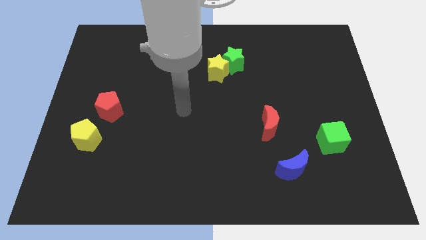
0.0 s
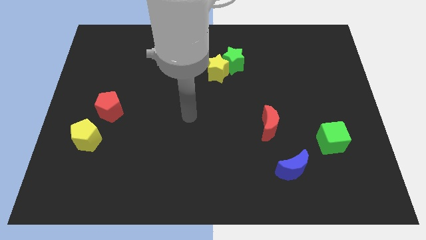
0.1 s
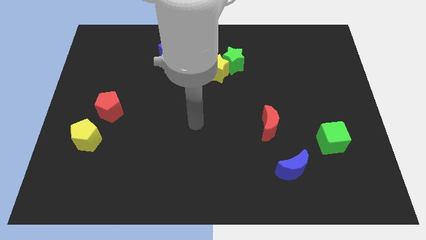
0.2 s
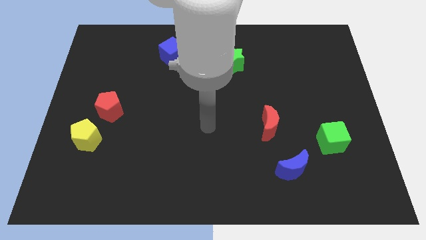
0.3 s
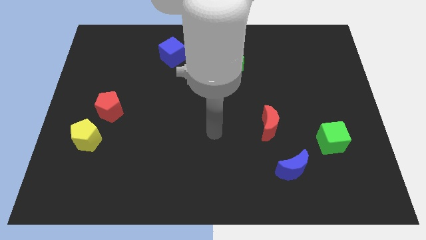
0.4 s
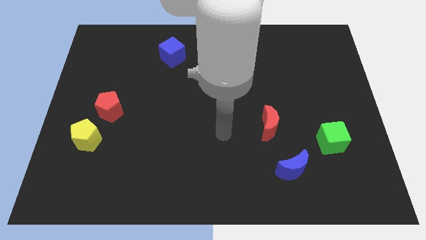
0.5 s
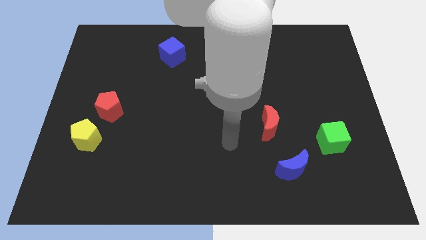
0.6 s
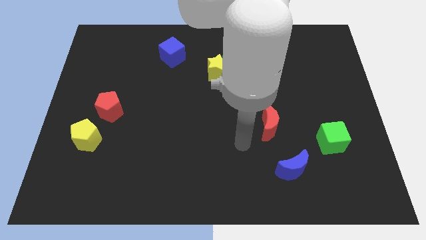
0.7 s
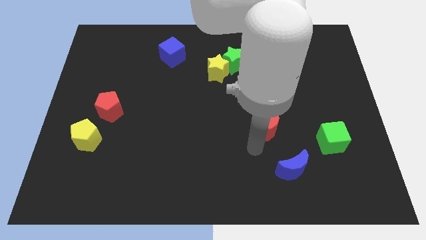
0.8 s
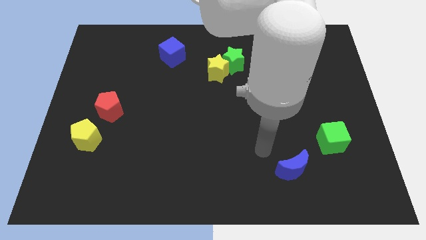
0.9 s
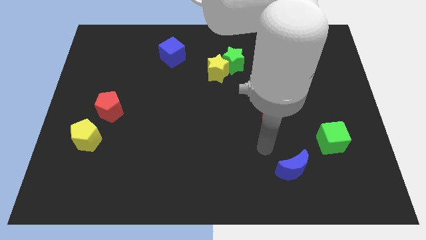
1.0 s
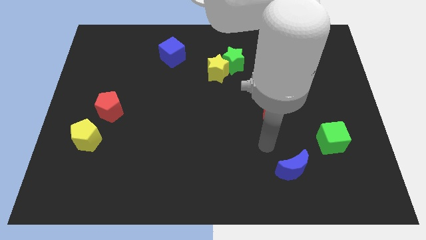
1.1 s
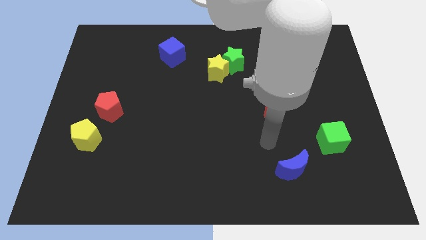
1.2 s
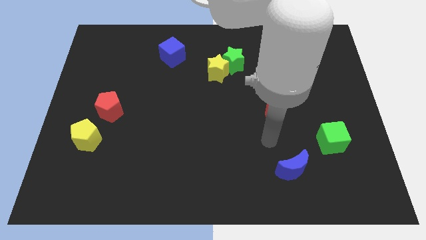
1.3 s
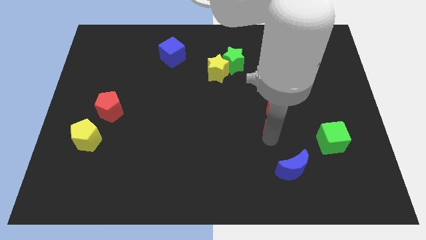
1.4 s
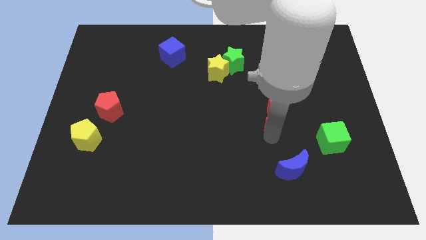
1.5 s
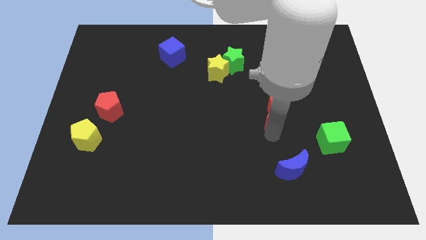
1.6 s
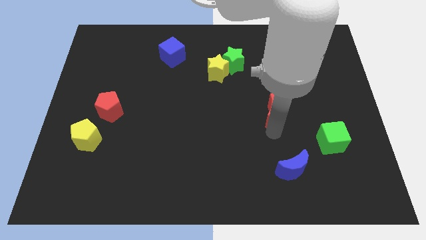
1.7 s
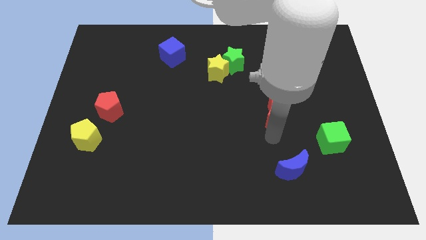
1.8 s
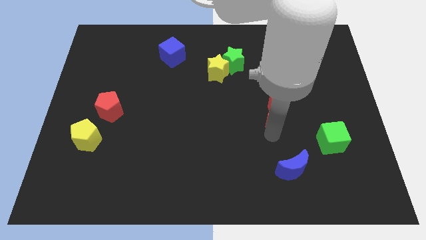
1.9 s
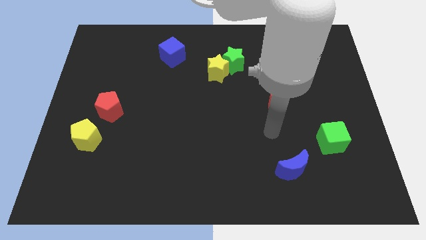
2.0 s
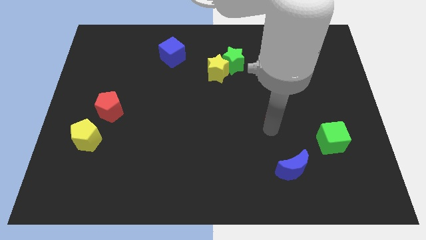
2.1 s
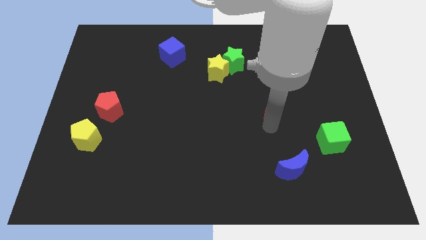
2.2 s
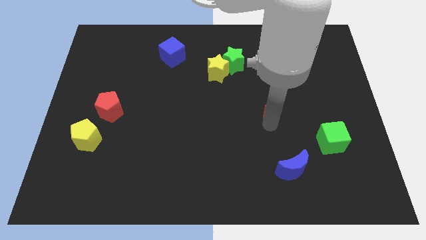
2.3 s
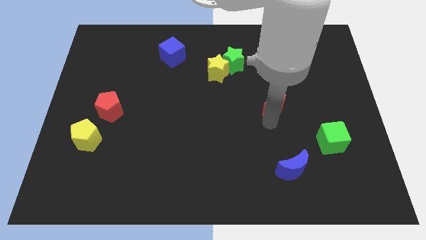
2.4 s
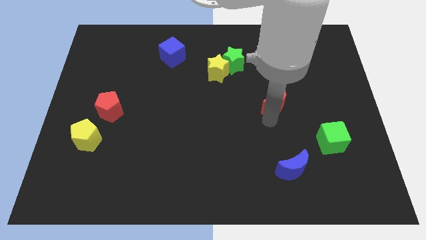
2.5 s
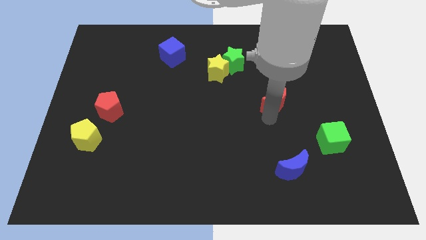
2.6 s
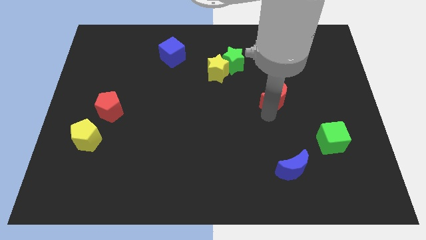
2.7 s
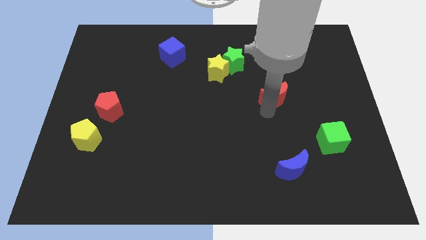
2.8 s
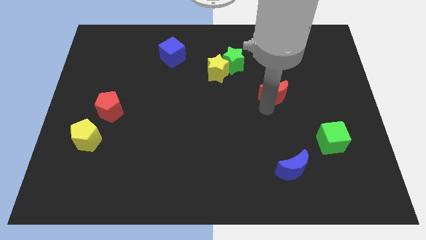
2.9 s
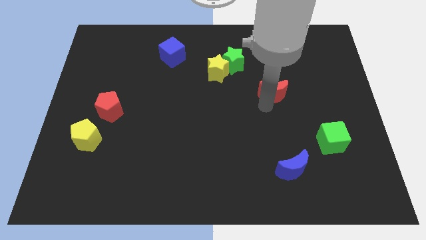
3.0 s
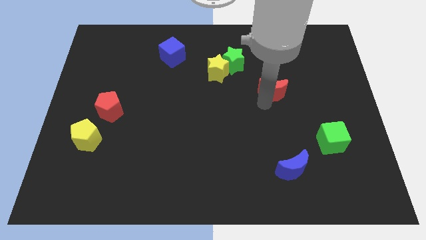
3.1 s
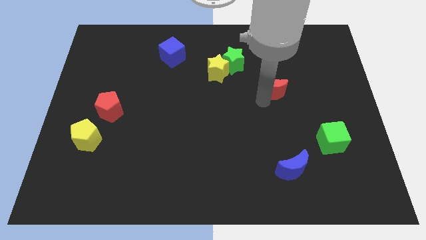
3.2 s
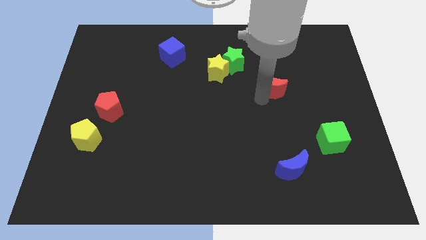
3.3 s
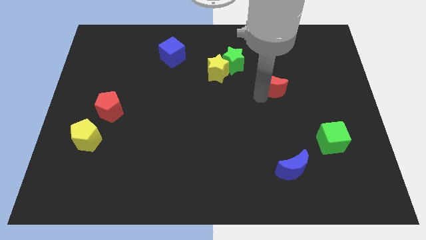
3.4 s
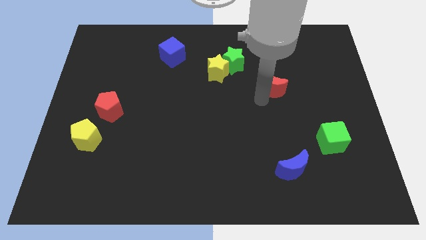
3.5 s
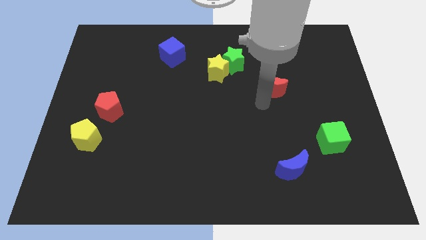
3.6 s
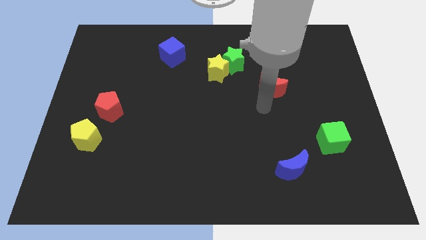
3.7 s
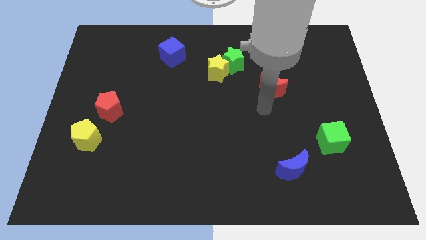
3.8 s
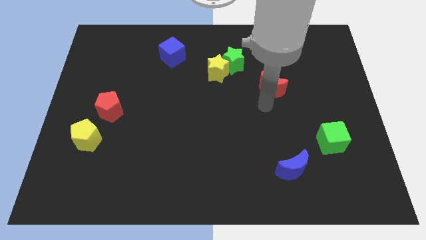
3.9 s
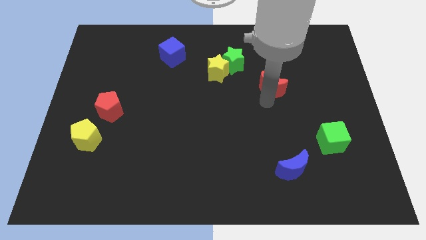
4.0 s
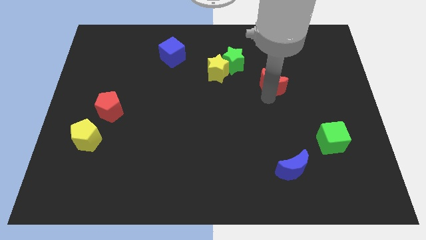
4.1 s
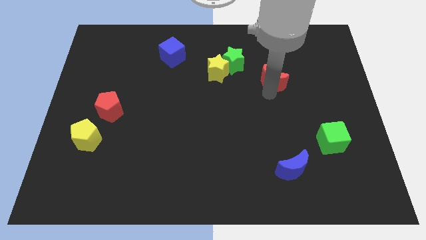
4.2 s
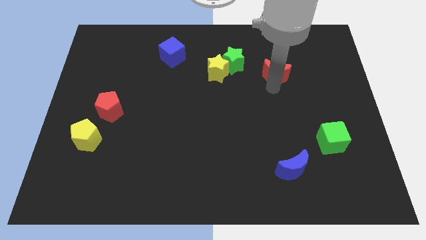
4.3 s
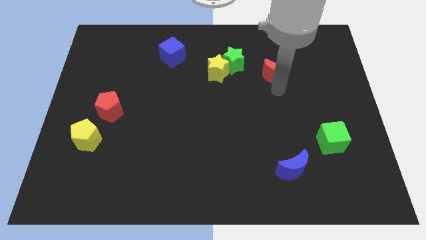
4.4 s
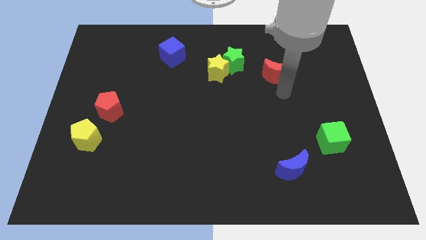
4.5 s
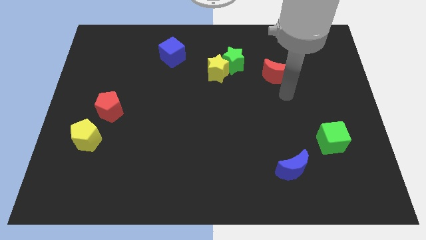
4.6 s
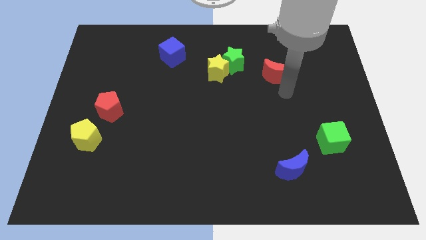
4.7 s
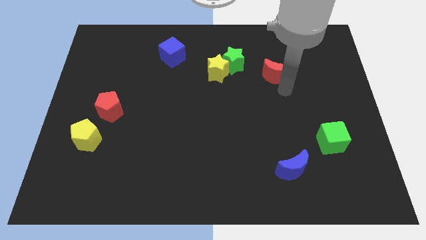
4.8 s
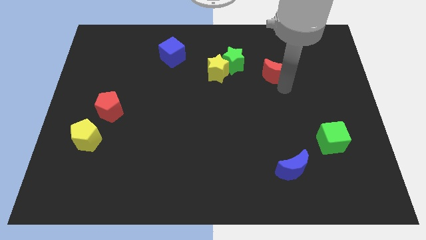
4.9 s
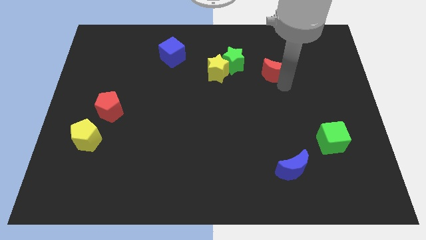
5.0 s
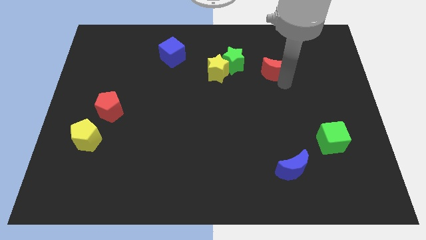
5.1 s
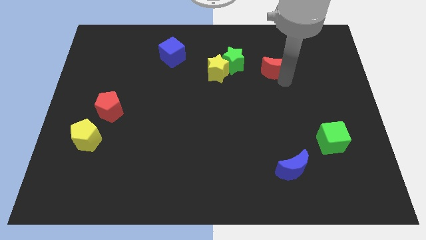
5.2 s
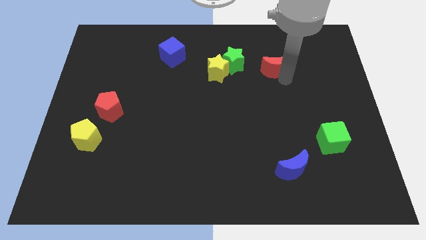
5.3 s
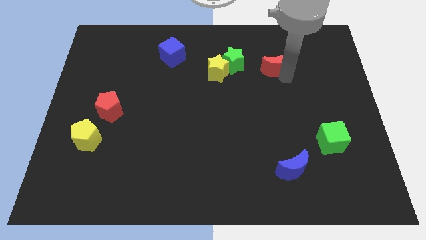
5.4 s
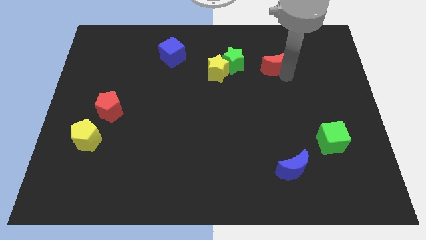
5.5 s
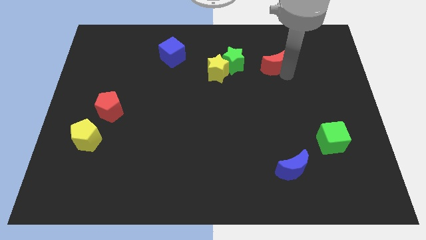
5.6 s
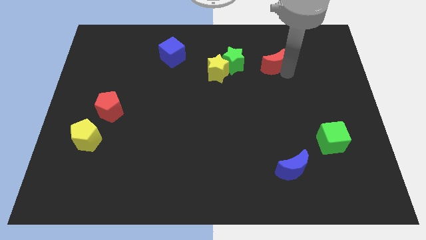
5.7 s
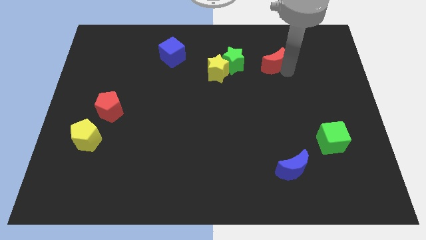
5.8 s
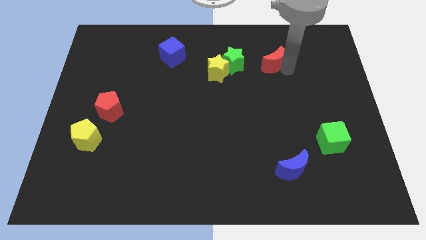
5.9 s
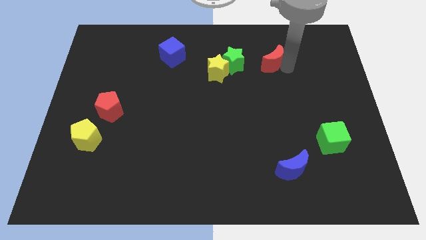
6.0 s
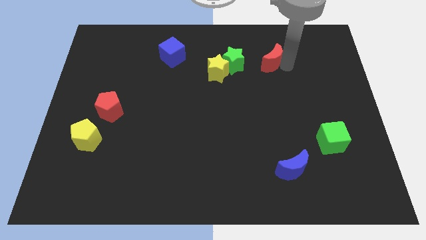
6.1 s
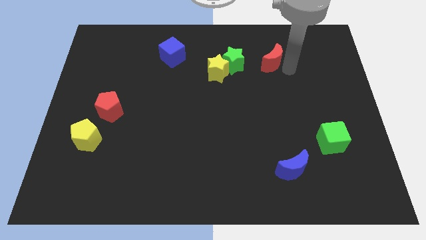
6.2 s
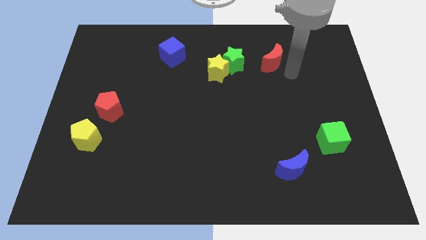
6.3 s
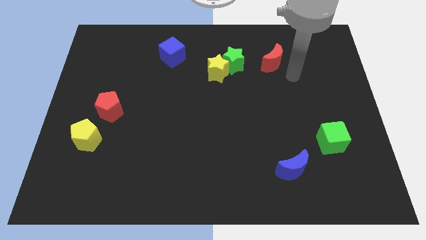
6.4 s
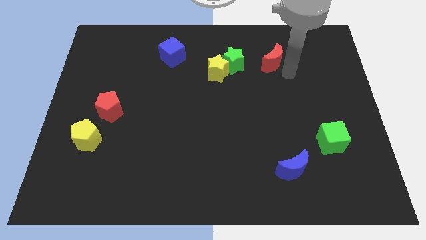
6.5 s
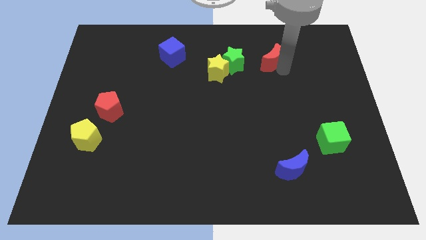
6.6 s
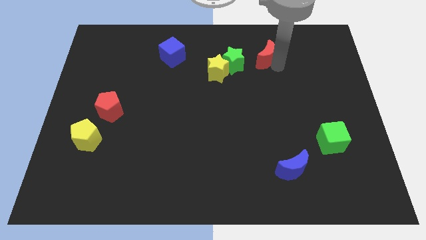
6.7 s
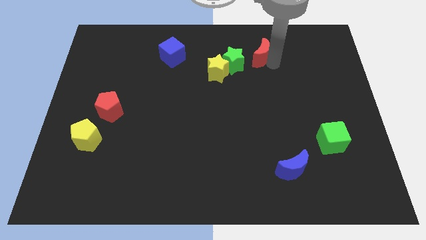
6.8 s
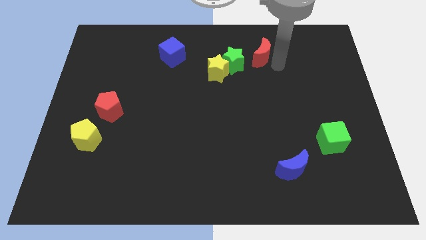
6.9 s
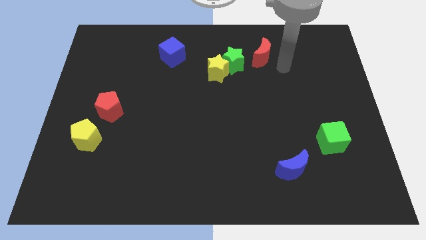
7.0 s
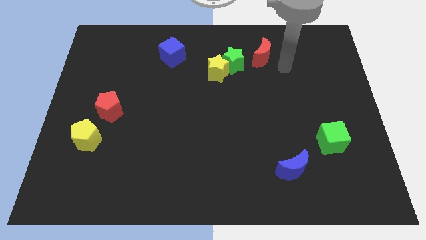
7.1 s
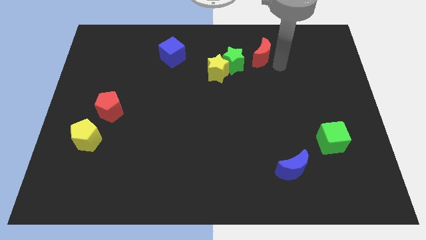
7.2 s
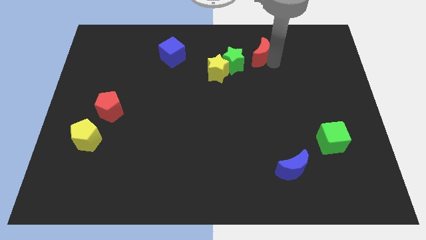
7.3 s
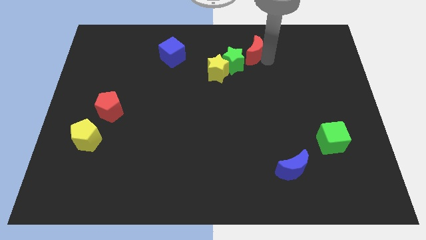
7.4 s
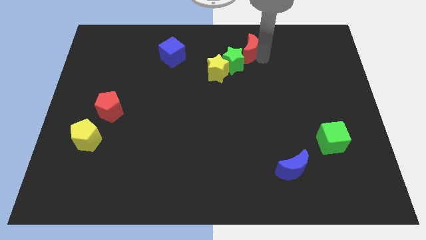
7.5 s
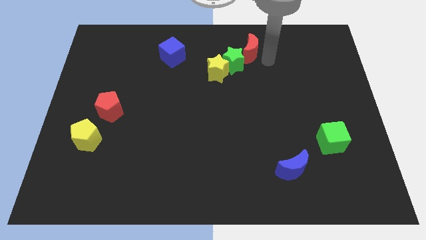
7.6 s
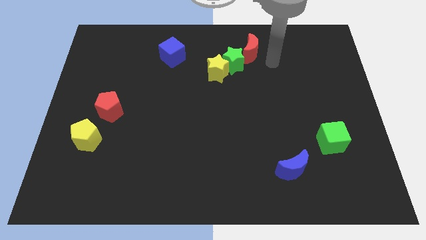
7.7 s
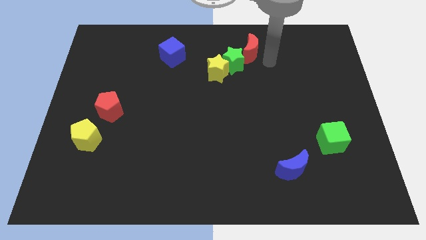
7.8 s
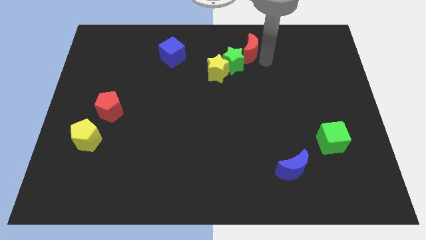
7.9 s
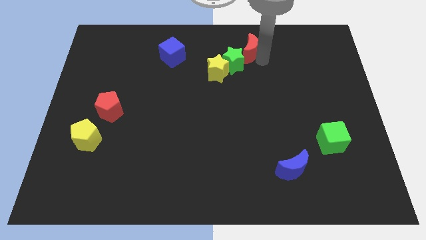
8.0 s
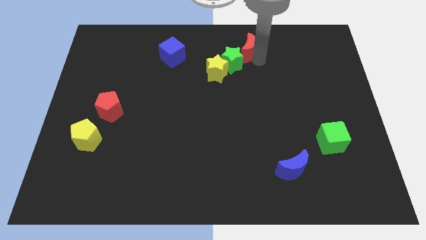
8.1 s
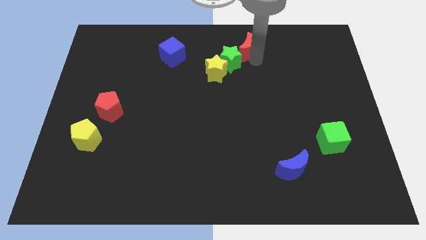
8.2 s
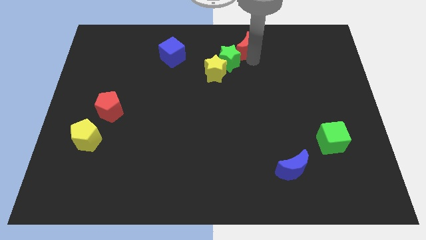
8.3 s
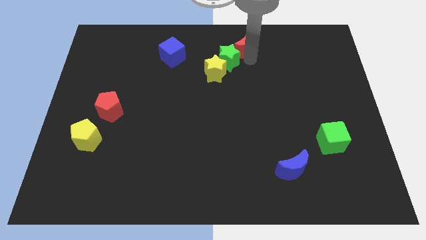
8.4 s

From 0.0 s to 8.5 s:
move the red moon to the top
